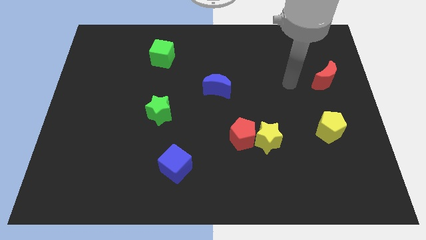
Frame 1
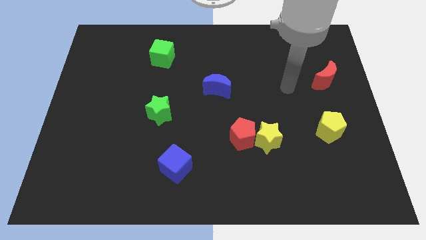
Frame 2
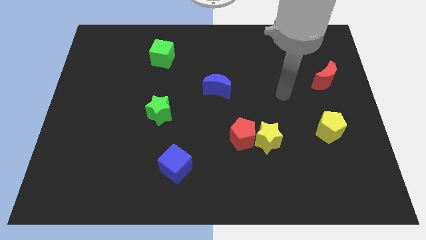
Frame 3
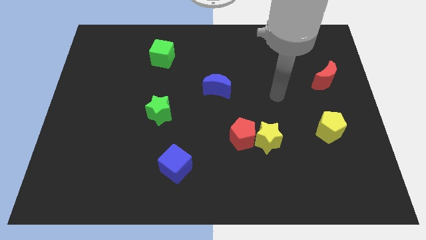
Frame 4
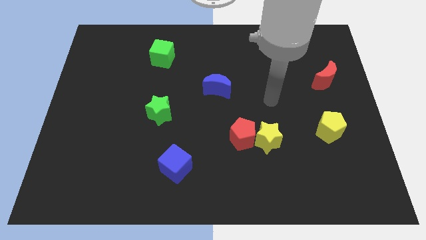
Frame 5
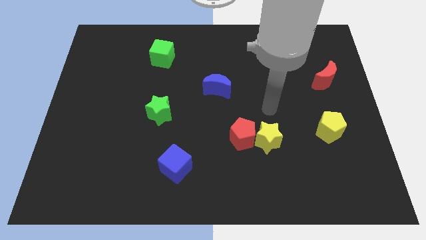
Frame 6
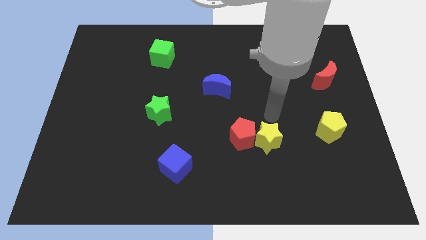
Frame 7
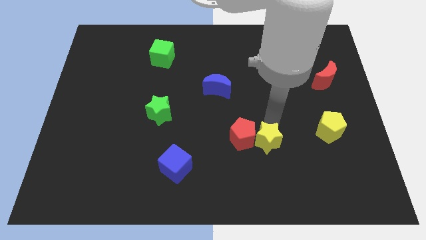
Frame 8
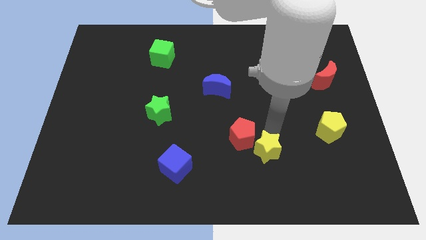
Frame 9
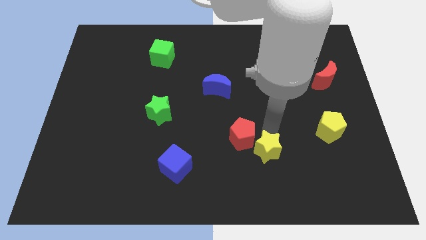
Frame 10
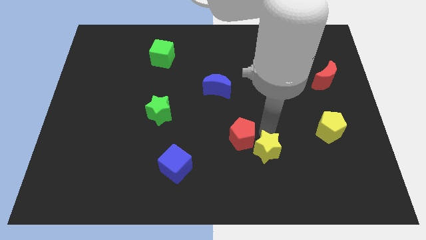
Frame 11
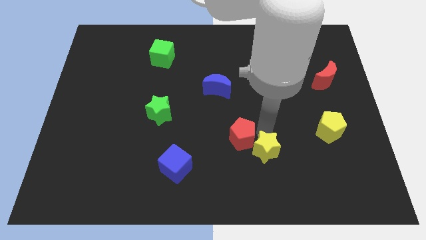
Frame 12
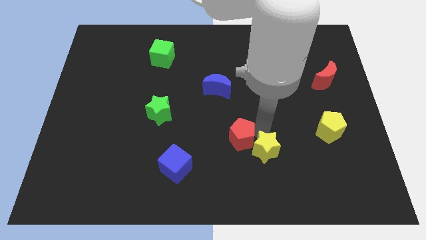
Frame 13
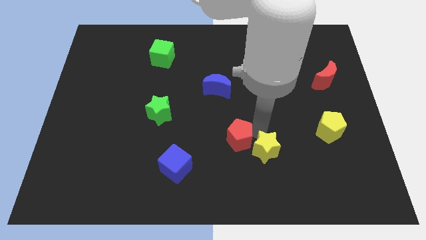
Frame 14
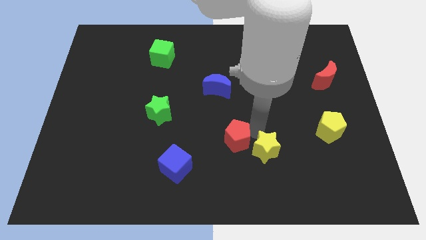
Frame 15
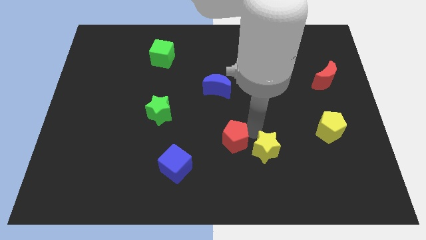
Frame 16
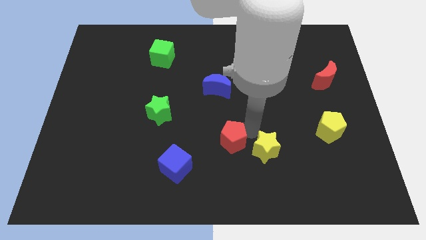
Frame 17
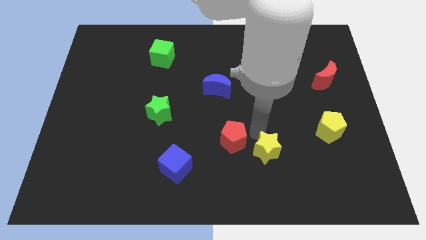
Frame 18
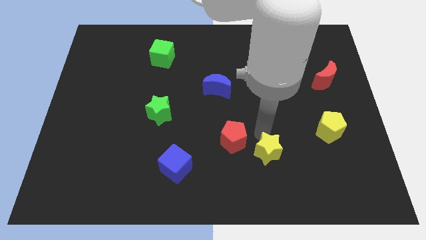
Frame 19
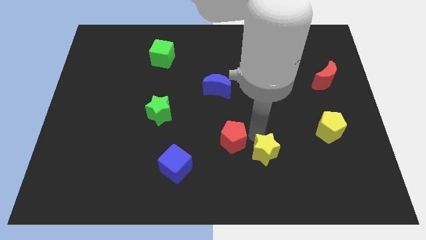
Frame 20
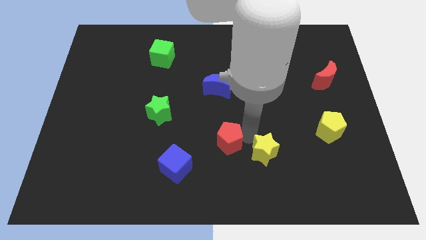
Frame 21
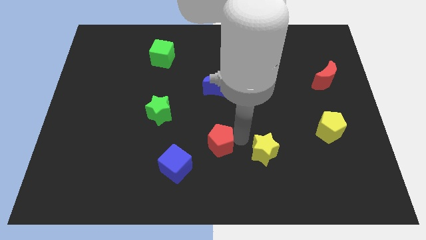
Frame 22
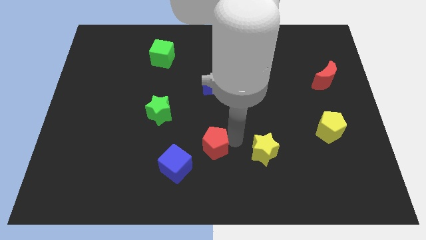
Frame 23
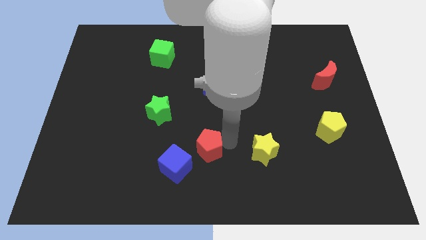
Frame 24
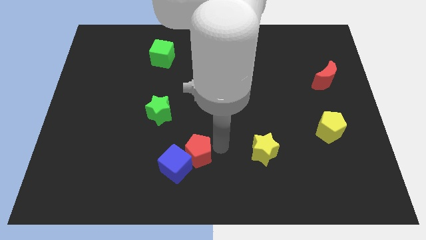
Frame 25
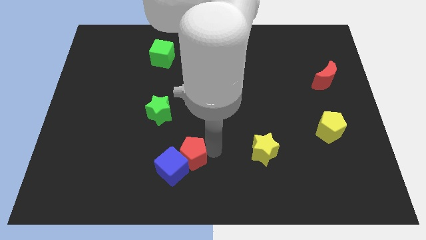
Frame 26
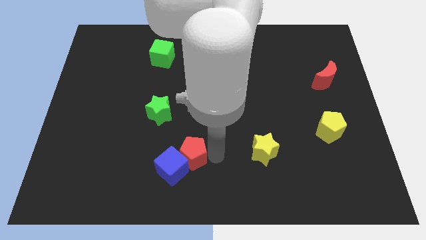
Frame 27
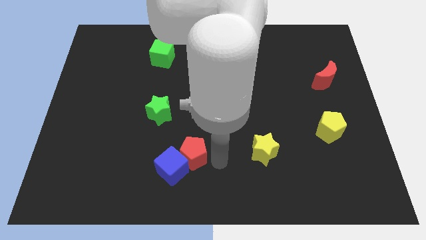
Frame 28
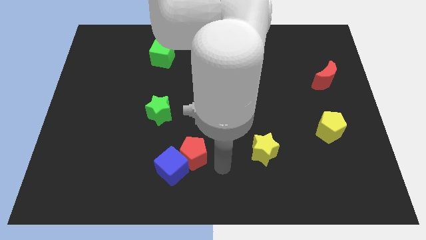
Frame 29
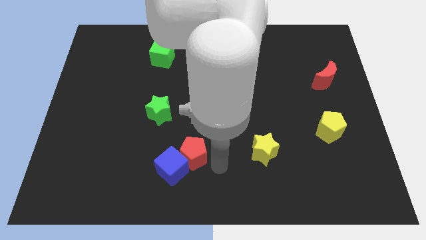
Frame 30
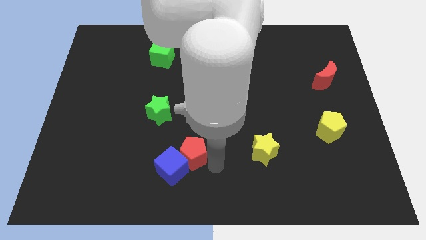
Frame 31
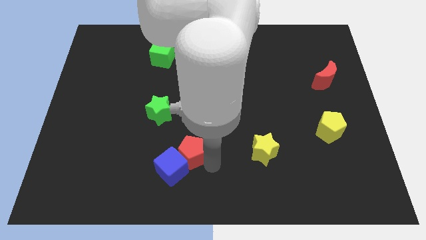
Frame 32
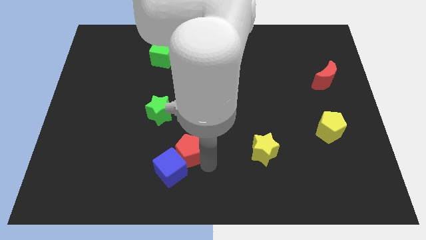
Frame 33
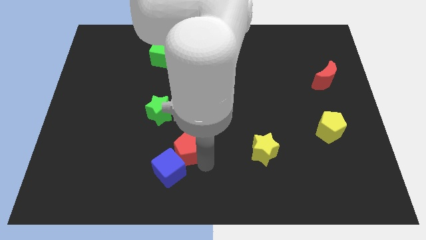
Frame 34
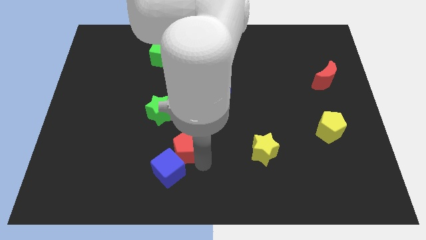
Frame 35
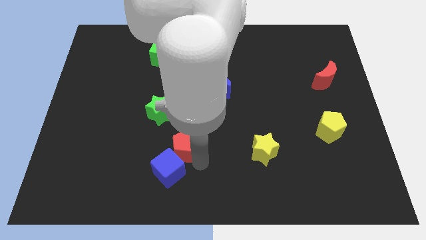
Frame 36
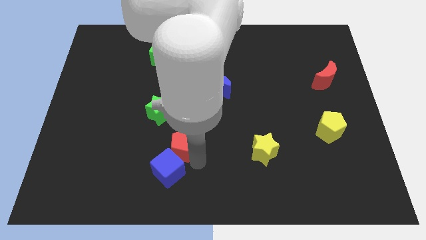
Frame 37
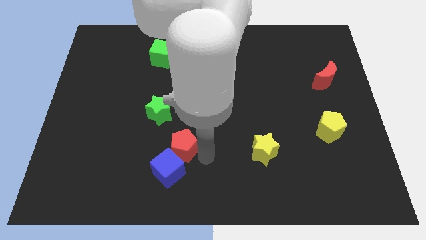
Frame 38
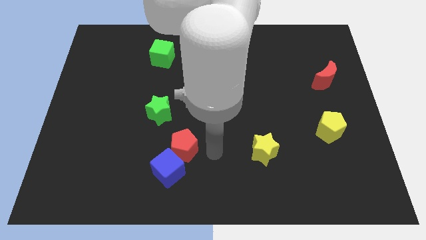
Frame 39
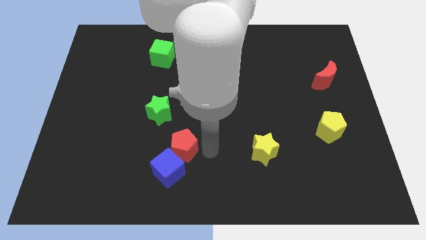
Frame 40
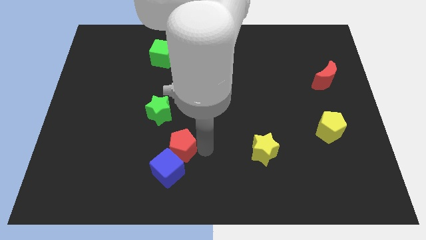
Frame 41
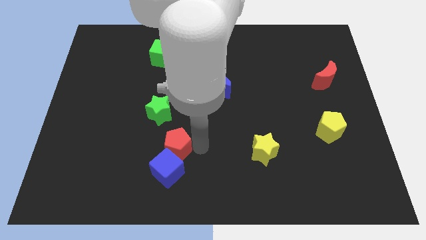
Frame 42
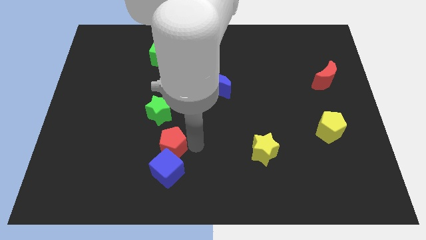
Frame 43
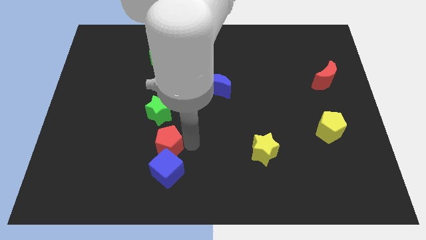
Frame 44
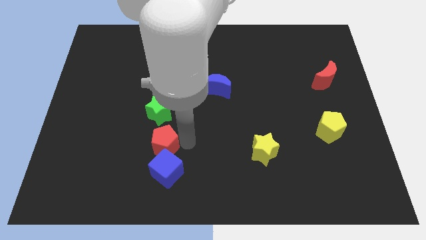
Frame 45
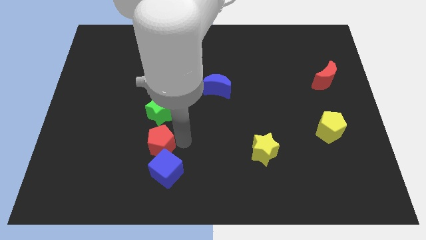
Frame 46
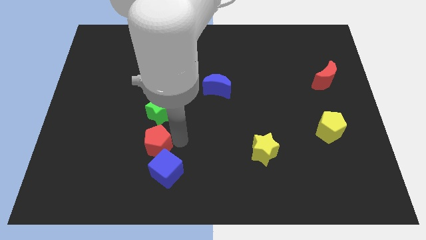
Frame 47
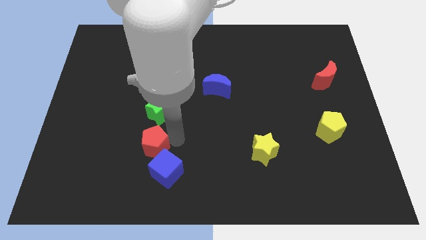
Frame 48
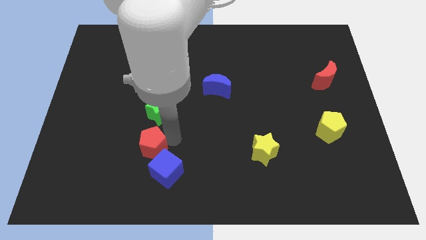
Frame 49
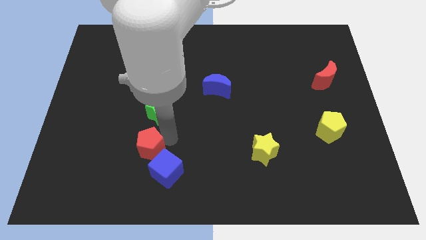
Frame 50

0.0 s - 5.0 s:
push the red pentagon left

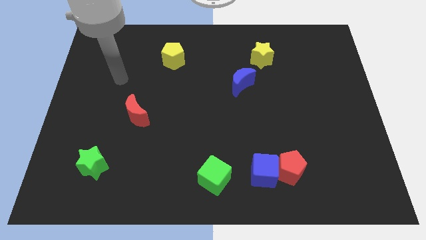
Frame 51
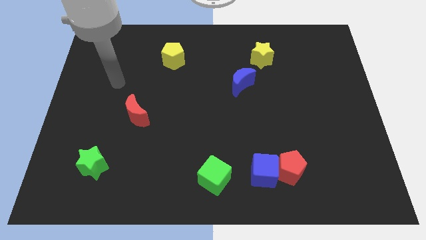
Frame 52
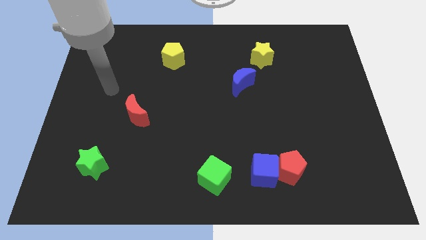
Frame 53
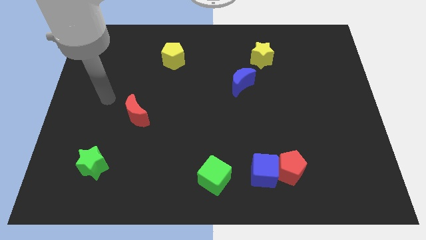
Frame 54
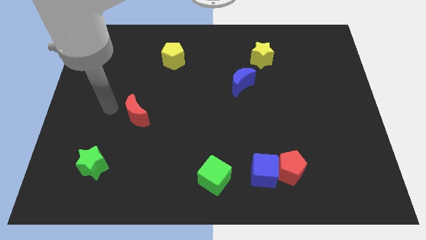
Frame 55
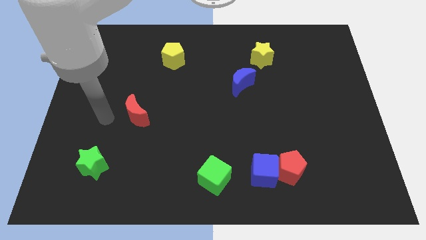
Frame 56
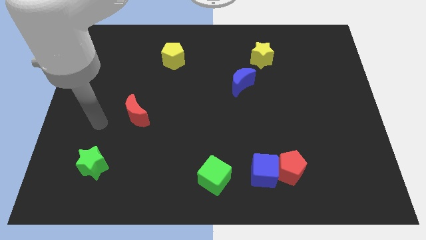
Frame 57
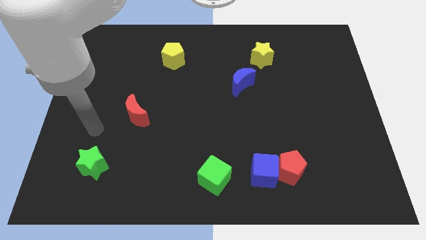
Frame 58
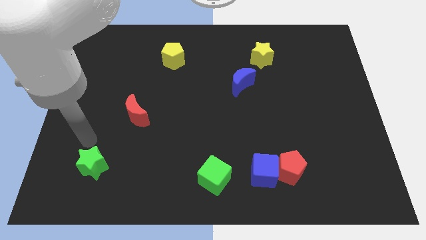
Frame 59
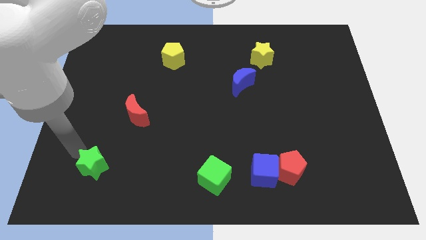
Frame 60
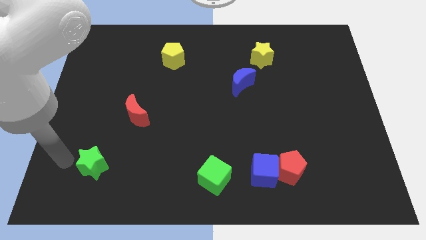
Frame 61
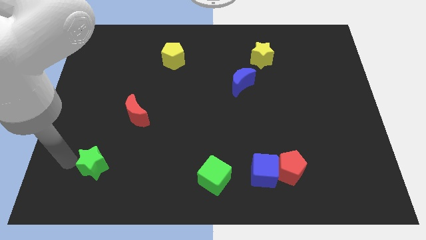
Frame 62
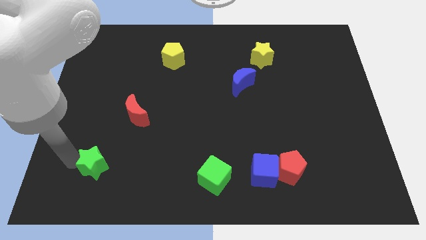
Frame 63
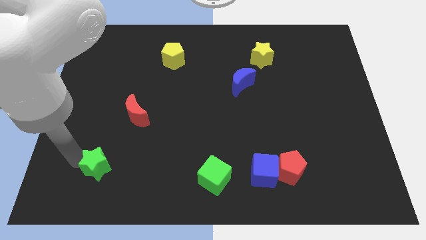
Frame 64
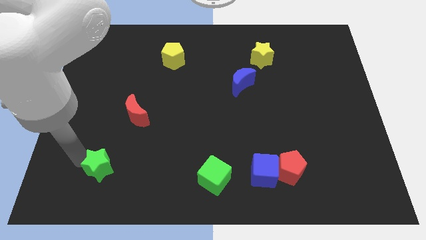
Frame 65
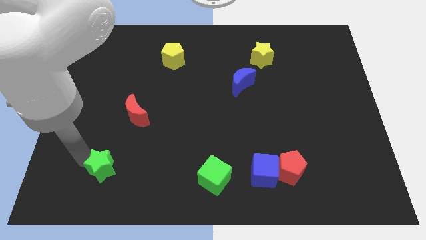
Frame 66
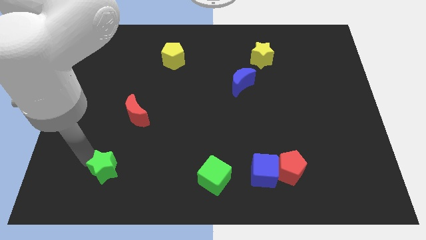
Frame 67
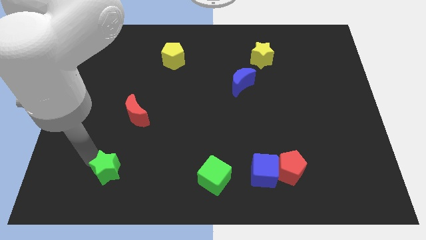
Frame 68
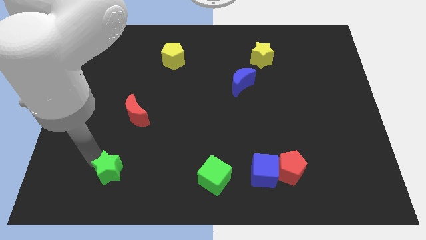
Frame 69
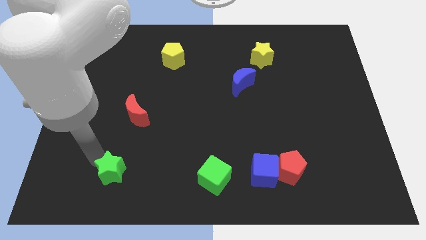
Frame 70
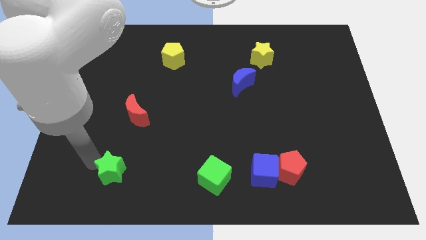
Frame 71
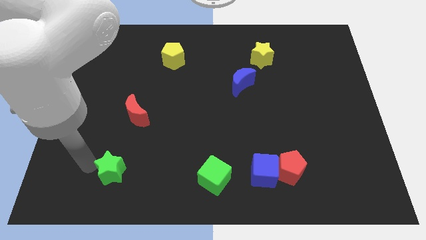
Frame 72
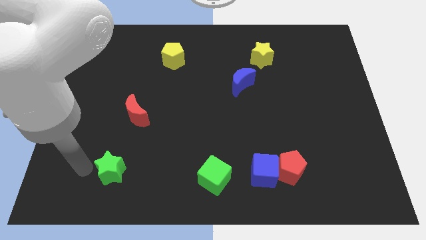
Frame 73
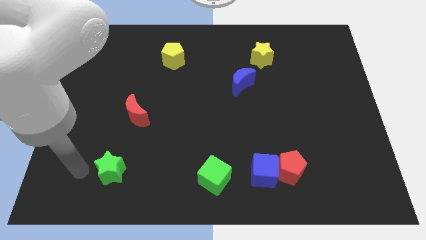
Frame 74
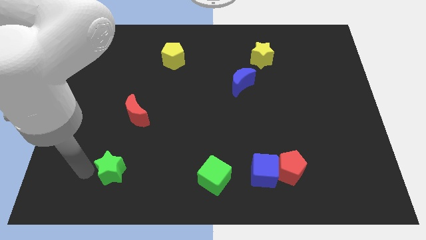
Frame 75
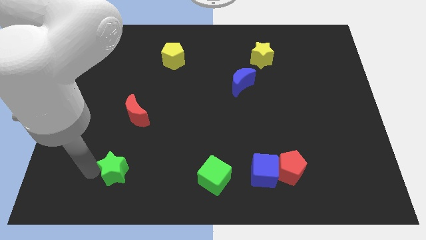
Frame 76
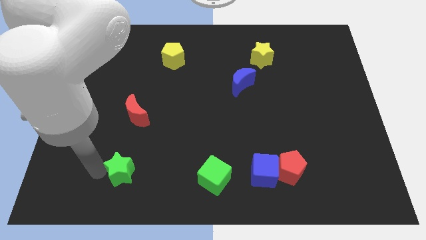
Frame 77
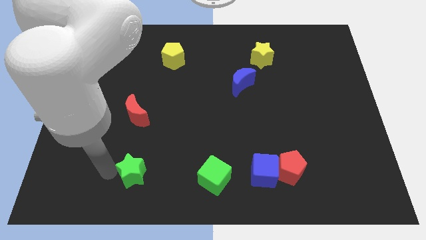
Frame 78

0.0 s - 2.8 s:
push the green star a bit right

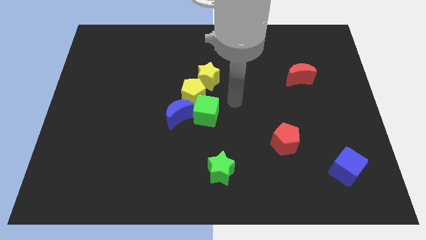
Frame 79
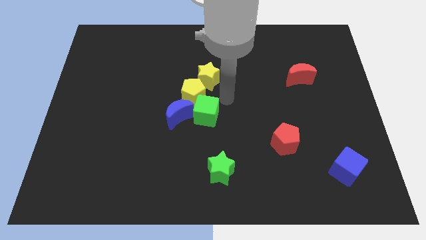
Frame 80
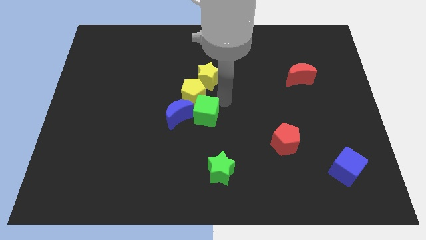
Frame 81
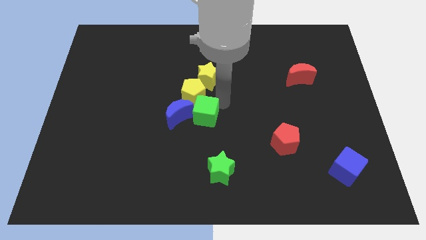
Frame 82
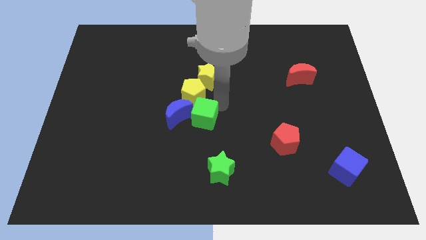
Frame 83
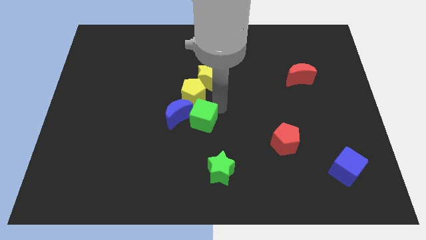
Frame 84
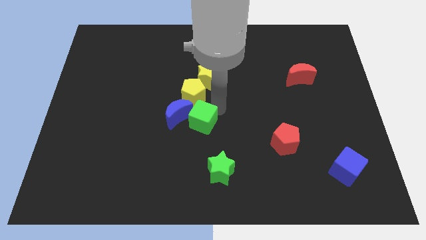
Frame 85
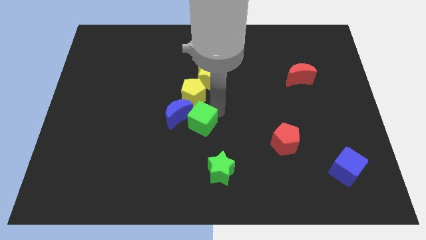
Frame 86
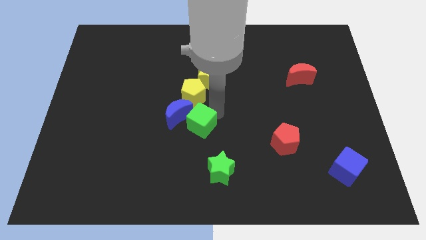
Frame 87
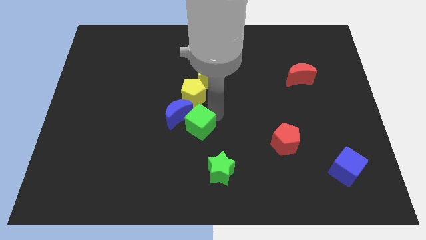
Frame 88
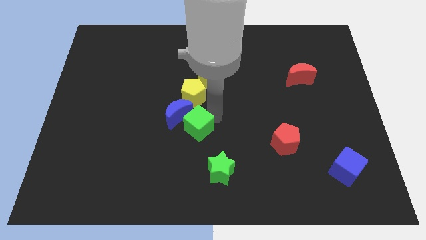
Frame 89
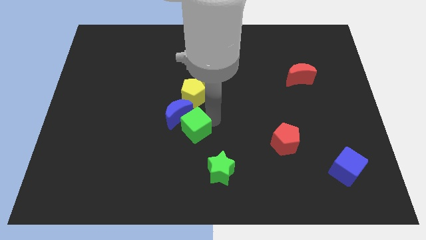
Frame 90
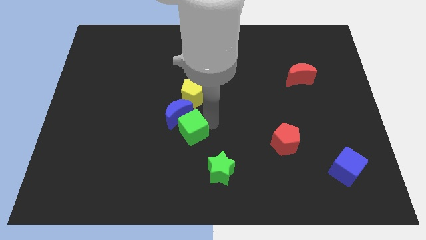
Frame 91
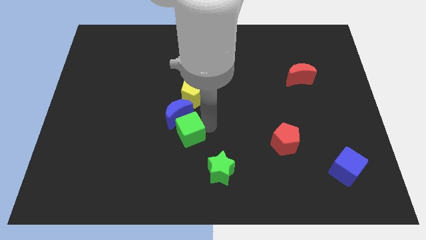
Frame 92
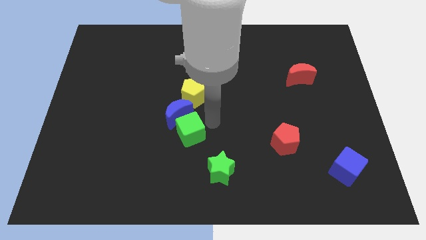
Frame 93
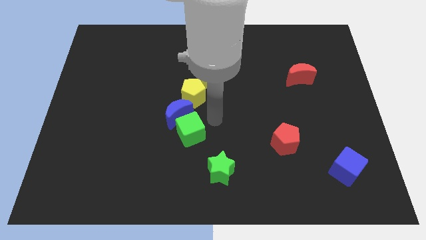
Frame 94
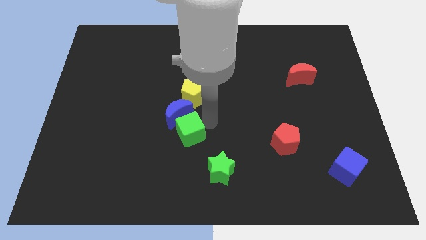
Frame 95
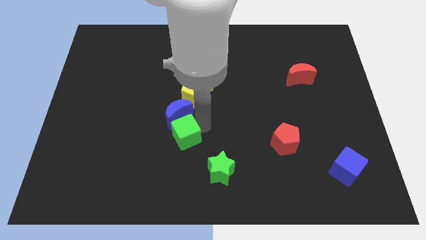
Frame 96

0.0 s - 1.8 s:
push the green cube diagonally down and left a bit
